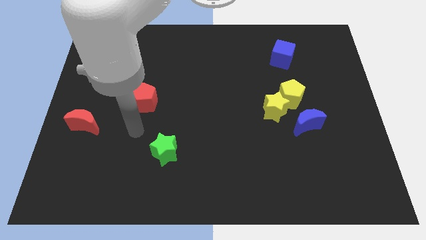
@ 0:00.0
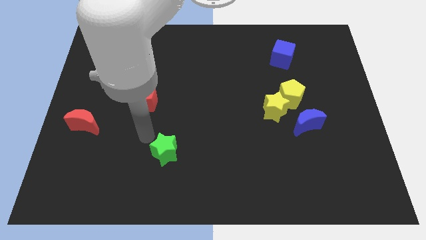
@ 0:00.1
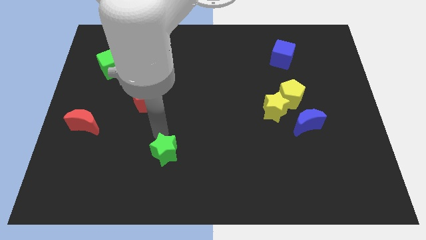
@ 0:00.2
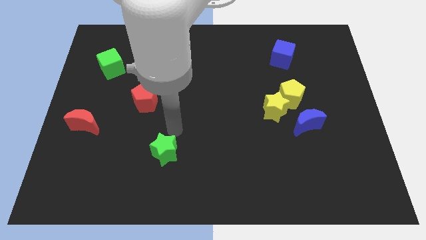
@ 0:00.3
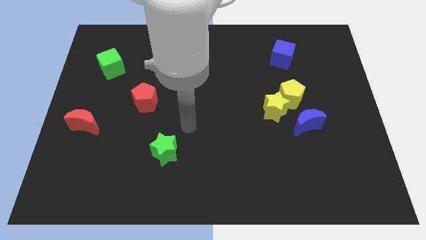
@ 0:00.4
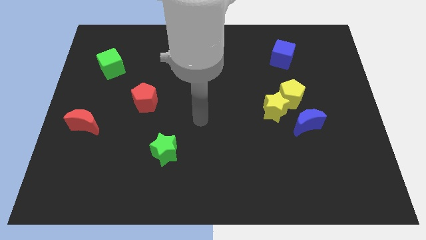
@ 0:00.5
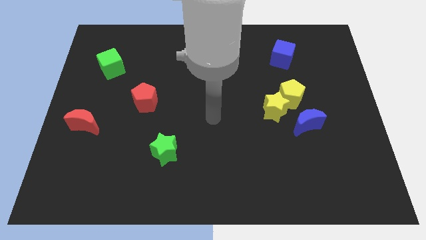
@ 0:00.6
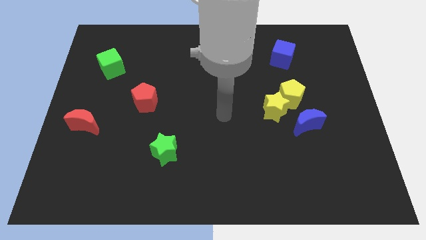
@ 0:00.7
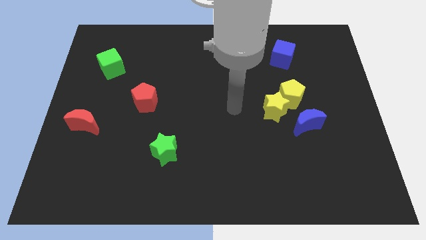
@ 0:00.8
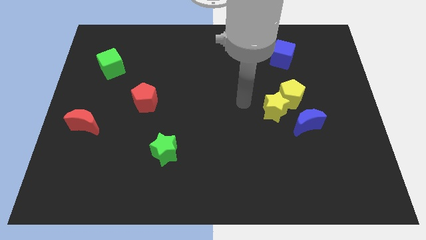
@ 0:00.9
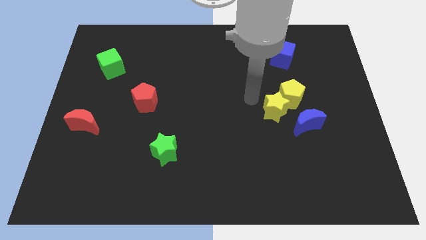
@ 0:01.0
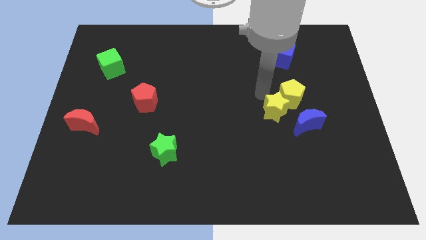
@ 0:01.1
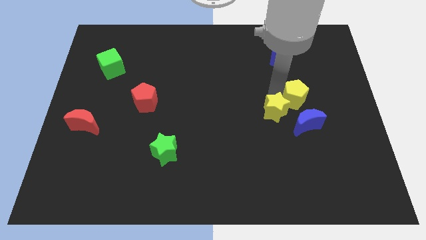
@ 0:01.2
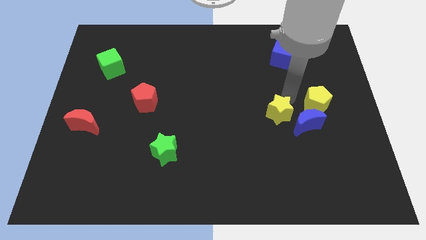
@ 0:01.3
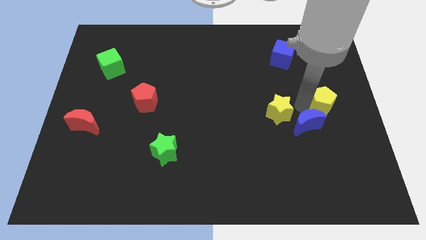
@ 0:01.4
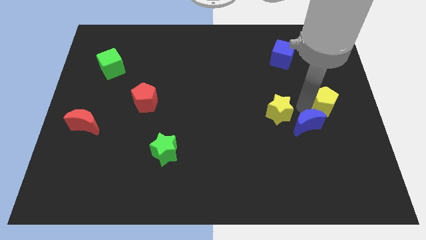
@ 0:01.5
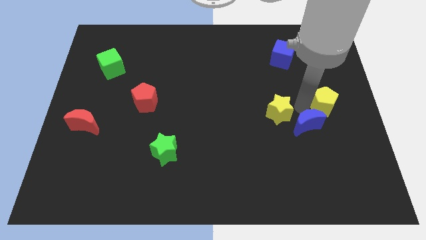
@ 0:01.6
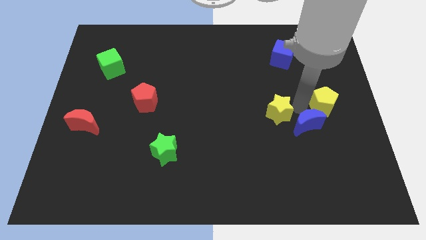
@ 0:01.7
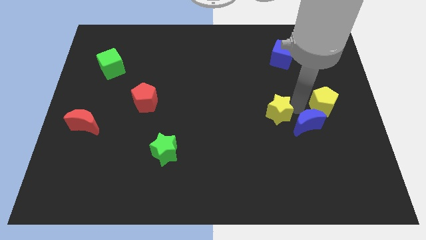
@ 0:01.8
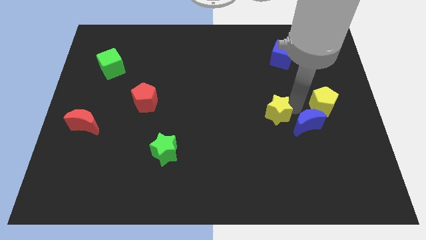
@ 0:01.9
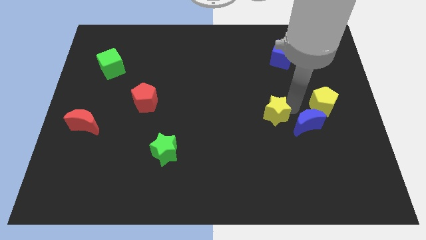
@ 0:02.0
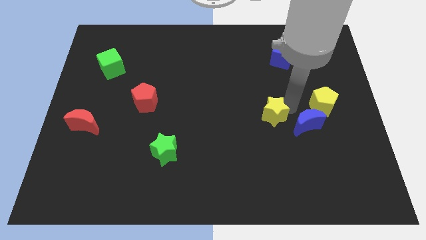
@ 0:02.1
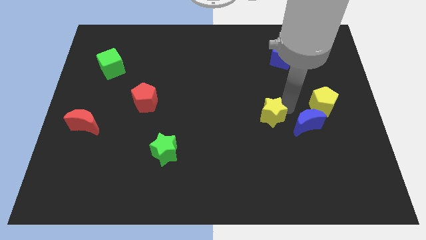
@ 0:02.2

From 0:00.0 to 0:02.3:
separate the yellow star from the yellow pentagon and blue moon

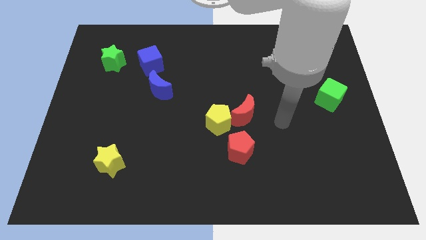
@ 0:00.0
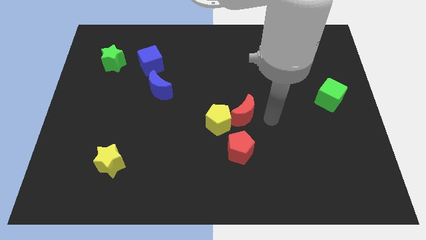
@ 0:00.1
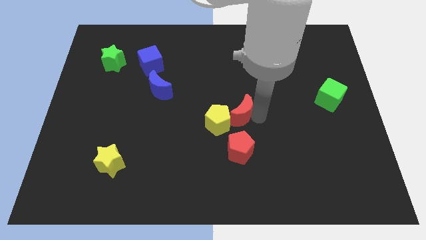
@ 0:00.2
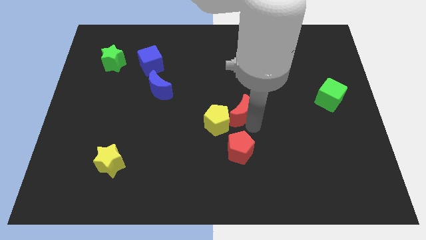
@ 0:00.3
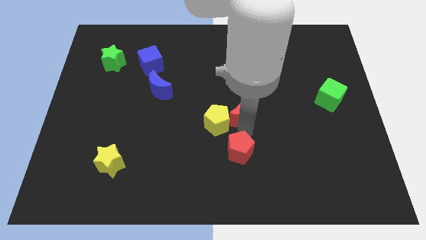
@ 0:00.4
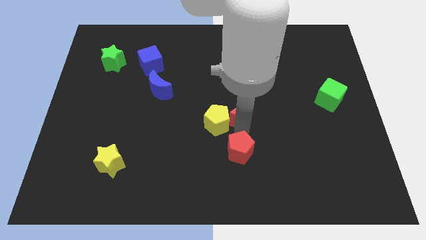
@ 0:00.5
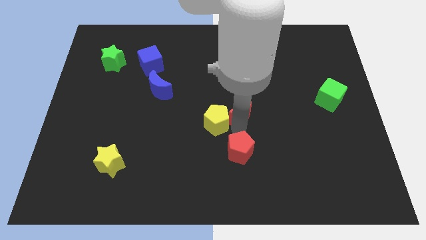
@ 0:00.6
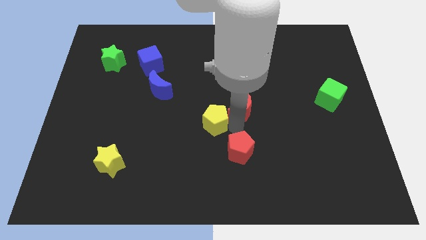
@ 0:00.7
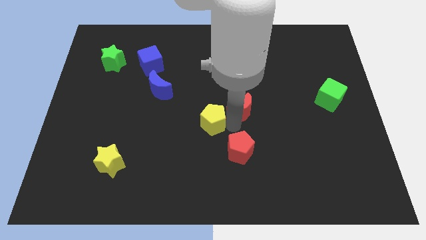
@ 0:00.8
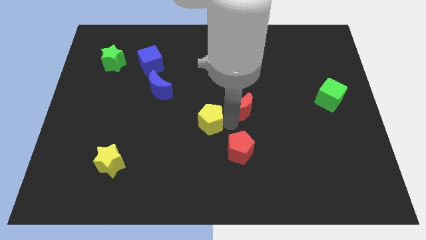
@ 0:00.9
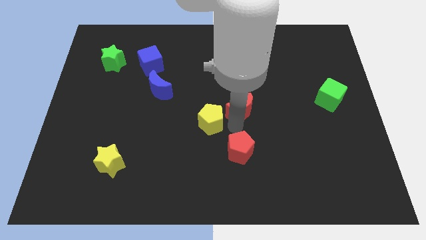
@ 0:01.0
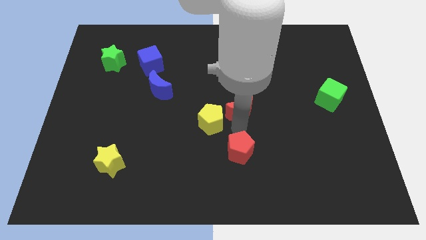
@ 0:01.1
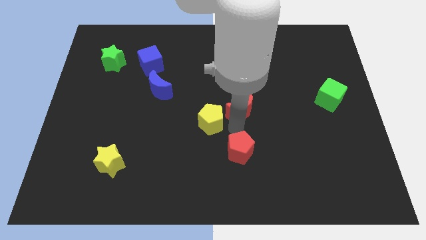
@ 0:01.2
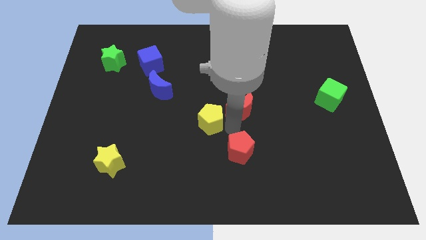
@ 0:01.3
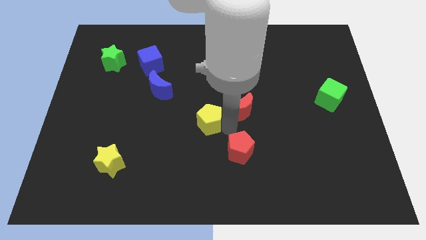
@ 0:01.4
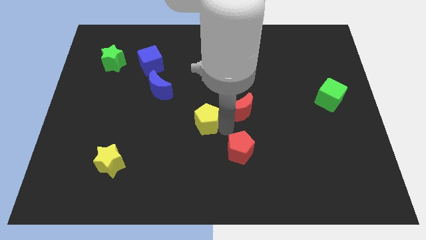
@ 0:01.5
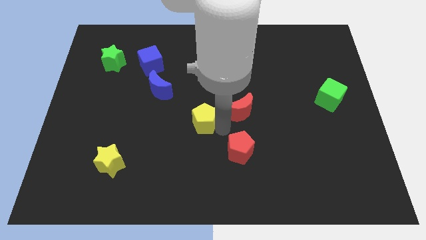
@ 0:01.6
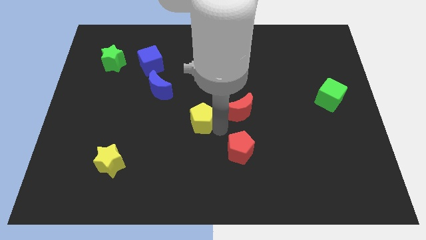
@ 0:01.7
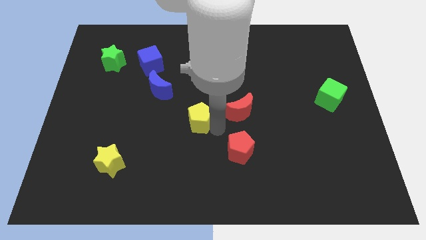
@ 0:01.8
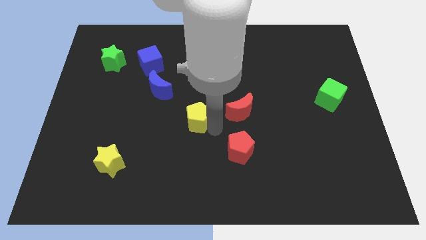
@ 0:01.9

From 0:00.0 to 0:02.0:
move the yellow pentagon away from the red moon and red pentagon

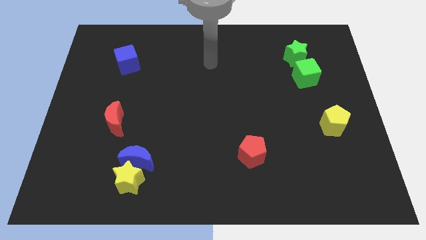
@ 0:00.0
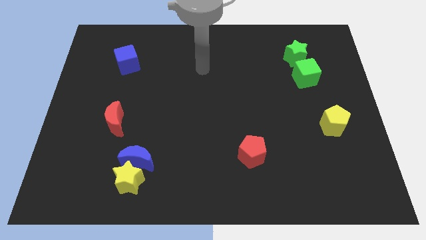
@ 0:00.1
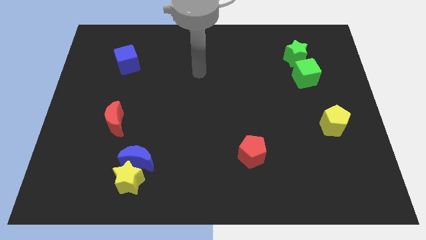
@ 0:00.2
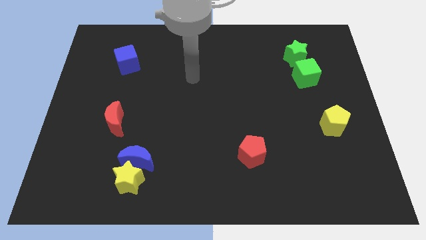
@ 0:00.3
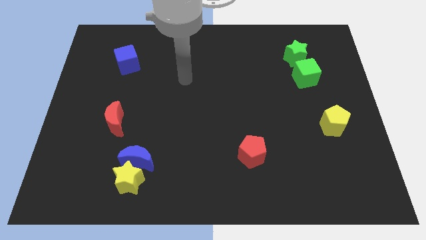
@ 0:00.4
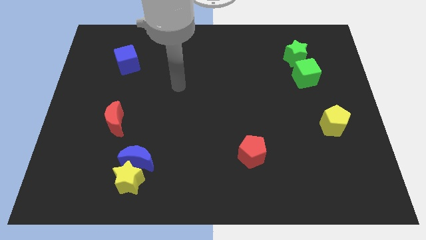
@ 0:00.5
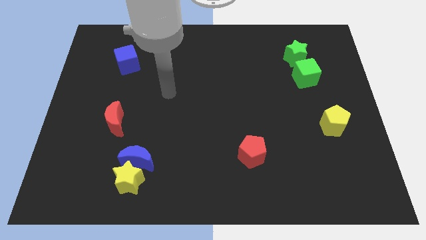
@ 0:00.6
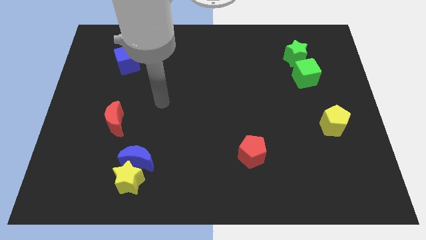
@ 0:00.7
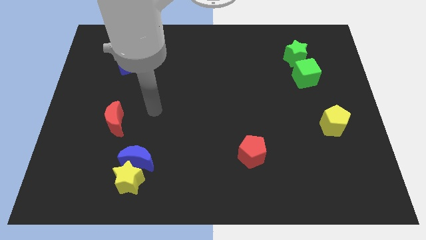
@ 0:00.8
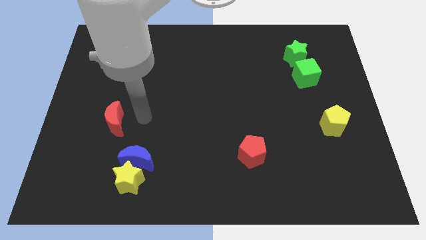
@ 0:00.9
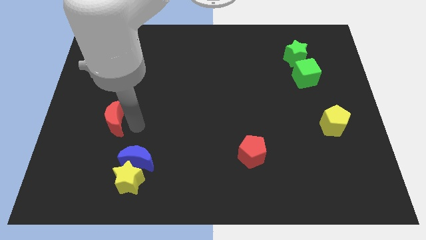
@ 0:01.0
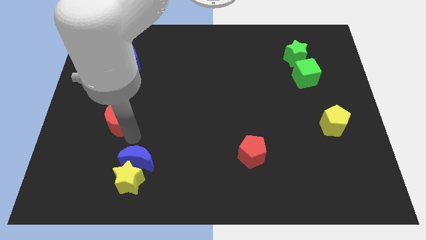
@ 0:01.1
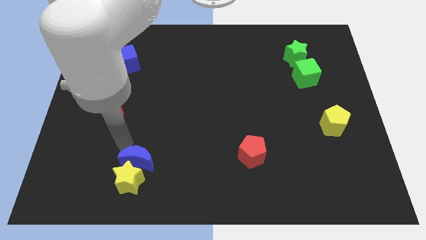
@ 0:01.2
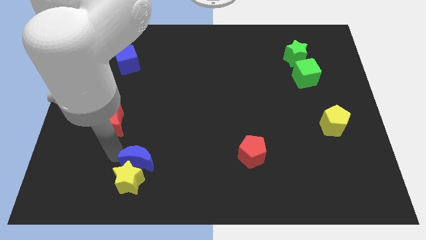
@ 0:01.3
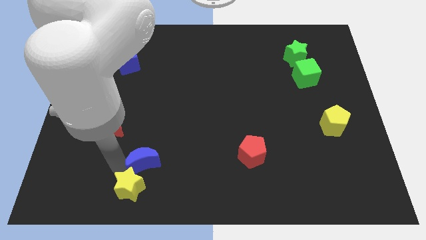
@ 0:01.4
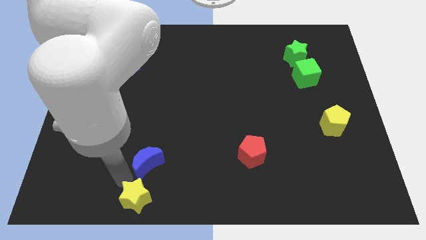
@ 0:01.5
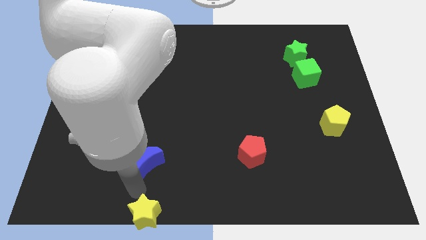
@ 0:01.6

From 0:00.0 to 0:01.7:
pull the blue moon apart from the yellow star

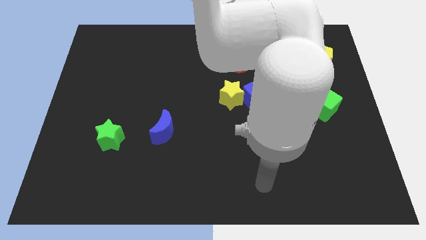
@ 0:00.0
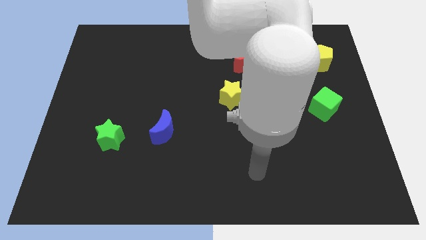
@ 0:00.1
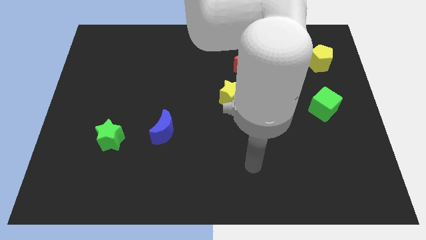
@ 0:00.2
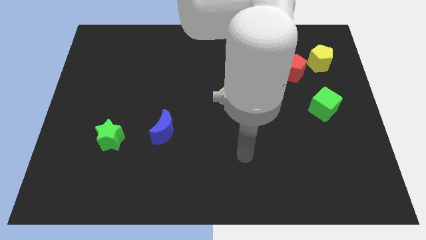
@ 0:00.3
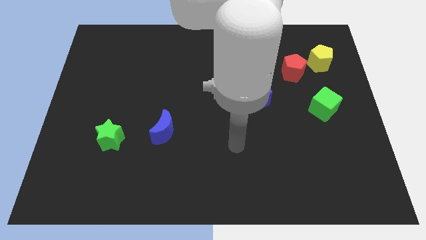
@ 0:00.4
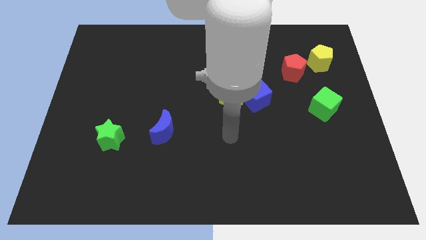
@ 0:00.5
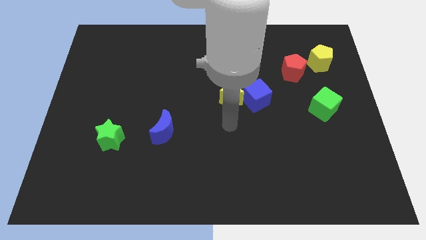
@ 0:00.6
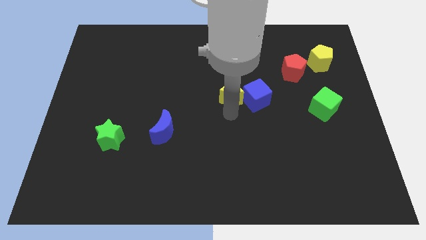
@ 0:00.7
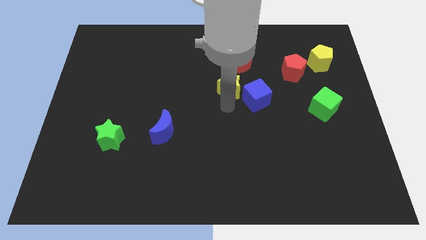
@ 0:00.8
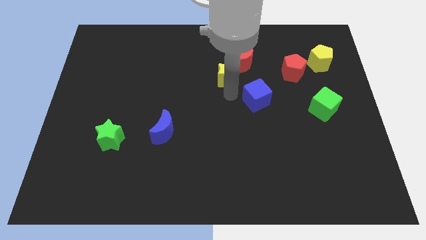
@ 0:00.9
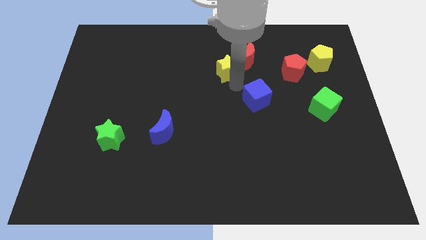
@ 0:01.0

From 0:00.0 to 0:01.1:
move the blue cube away from the yellow star

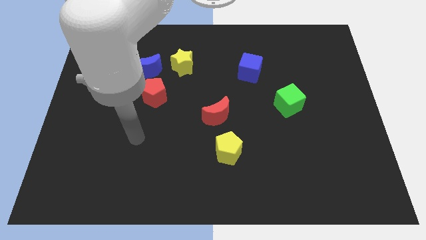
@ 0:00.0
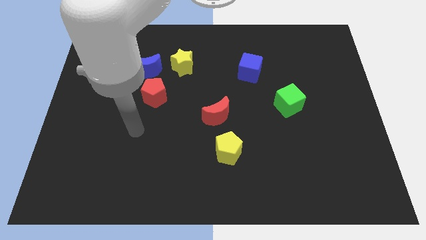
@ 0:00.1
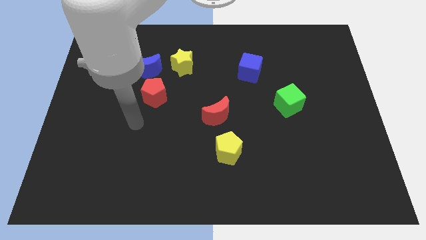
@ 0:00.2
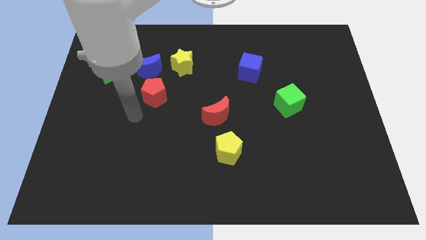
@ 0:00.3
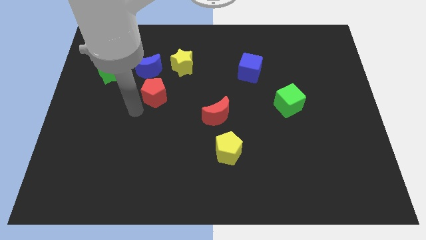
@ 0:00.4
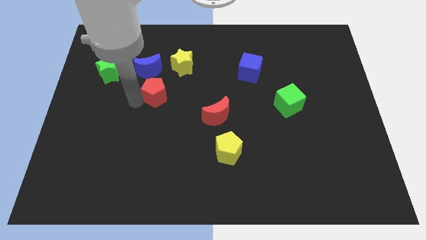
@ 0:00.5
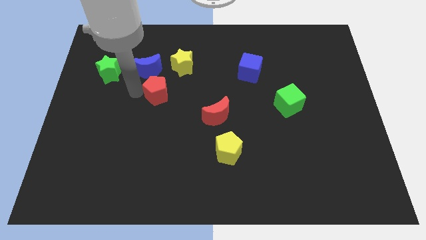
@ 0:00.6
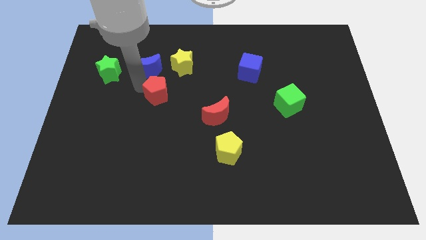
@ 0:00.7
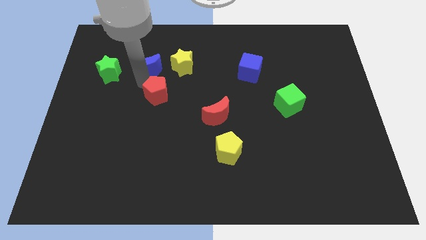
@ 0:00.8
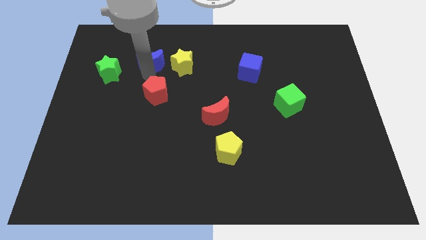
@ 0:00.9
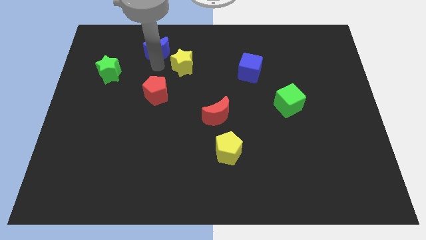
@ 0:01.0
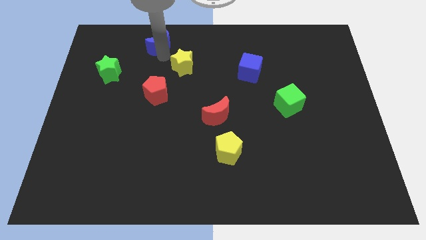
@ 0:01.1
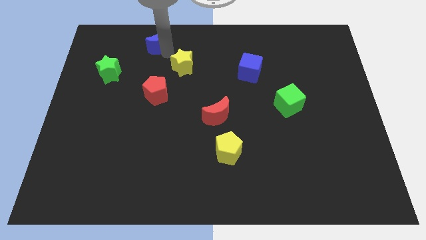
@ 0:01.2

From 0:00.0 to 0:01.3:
pull the yellow star apart from the blue moon

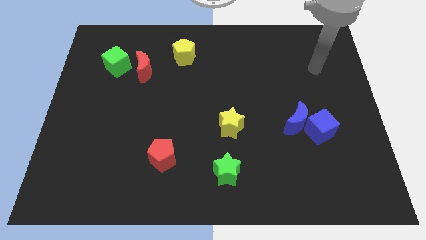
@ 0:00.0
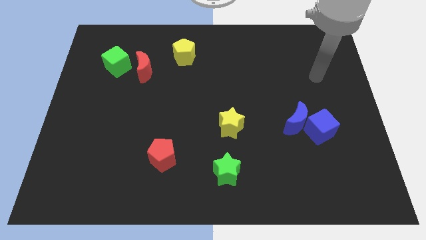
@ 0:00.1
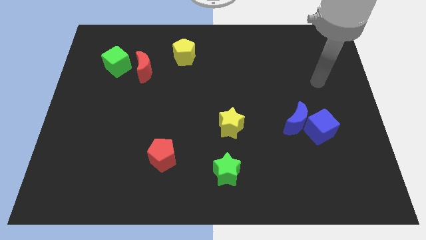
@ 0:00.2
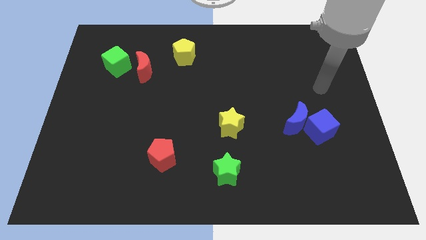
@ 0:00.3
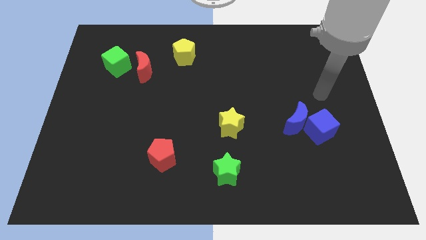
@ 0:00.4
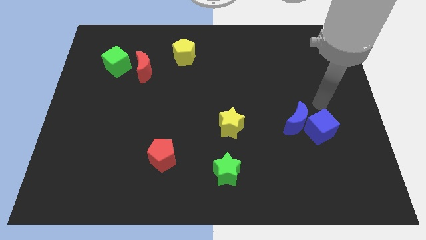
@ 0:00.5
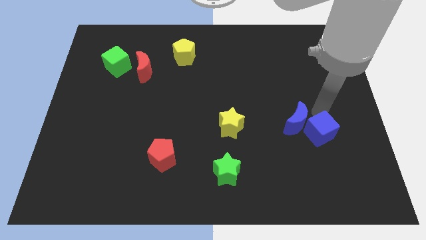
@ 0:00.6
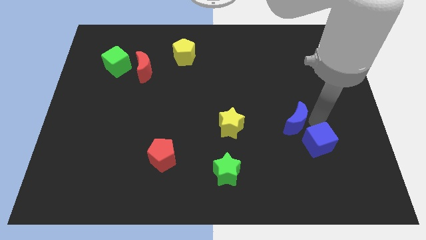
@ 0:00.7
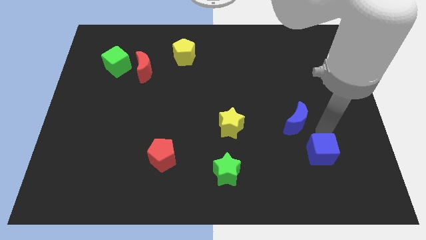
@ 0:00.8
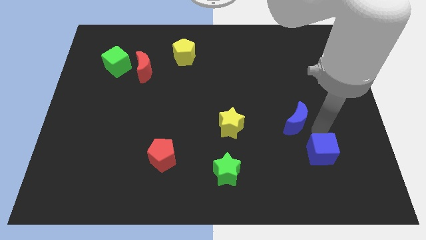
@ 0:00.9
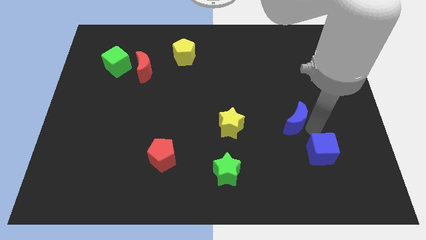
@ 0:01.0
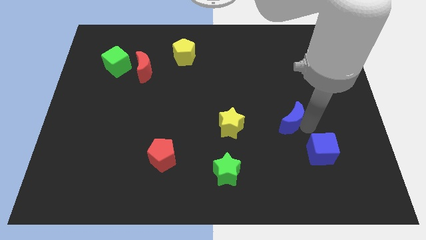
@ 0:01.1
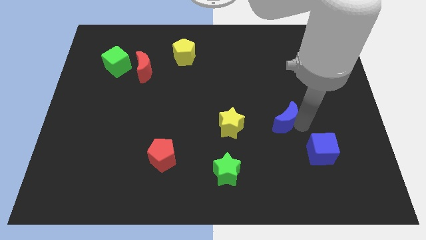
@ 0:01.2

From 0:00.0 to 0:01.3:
pull the blue moon apart from the blue cube
